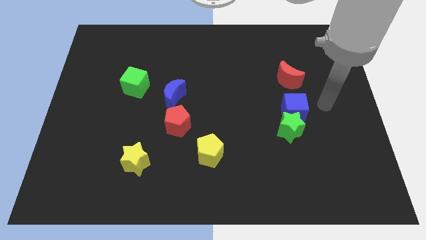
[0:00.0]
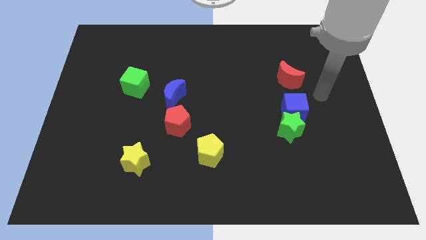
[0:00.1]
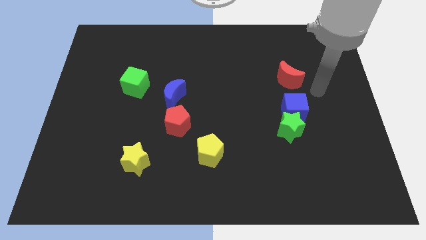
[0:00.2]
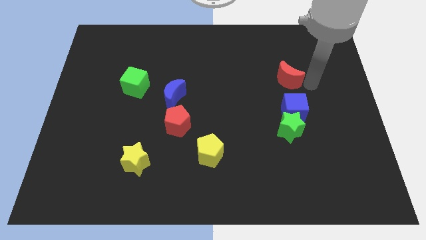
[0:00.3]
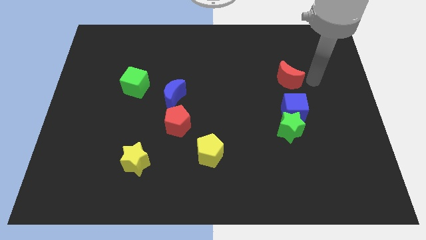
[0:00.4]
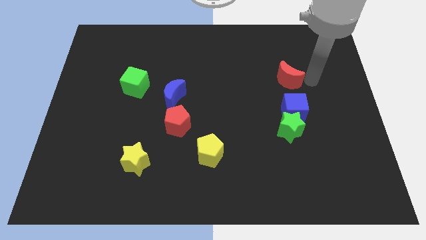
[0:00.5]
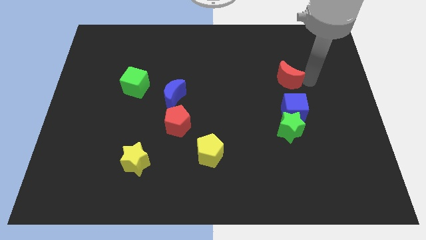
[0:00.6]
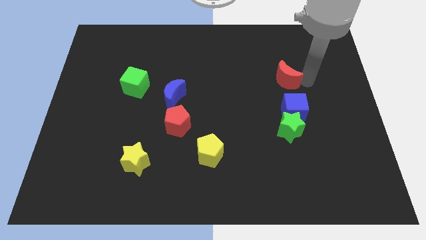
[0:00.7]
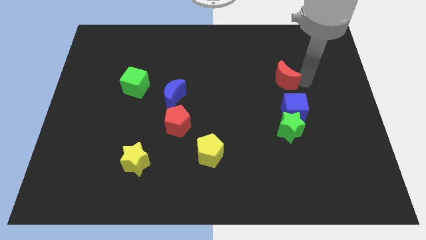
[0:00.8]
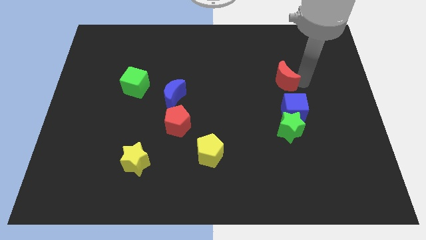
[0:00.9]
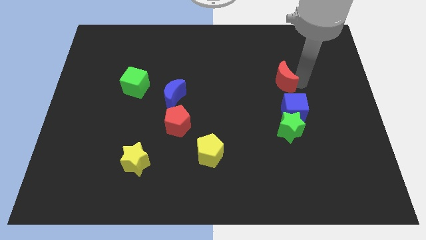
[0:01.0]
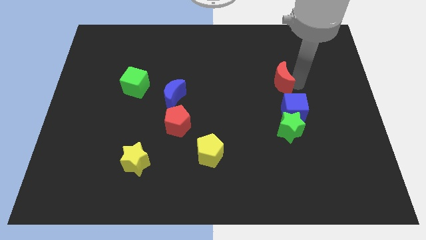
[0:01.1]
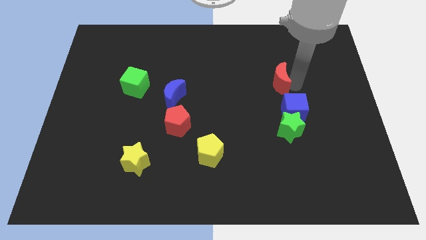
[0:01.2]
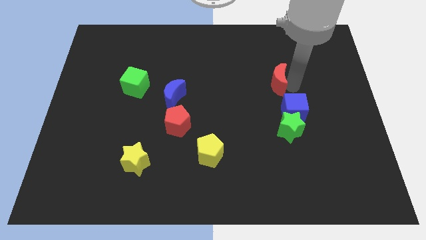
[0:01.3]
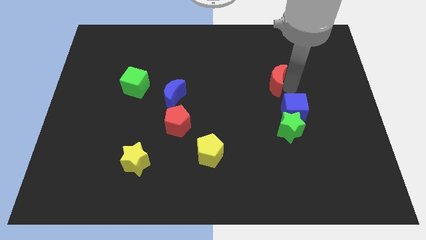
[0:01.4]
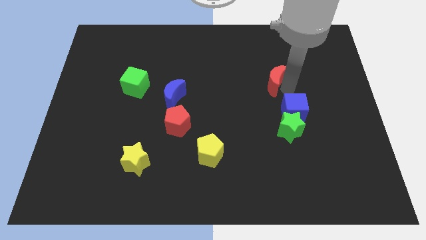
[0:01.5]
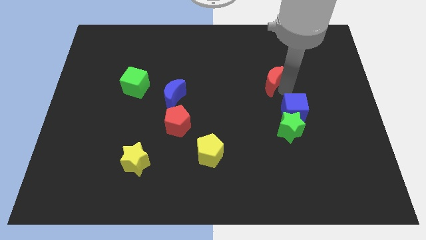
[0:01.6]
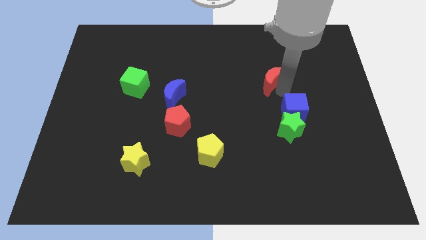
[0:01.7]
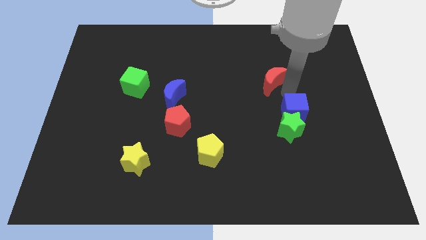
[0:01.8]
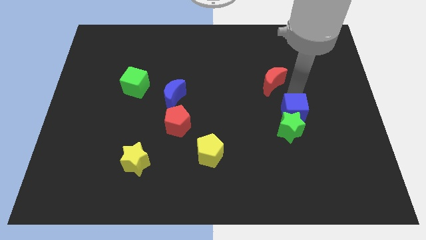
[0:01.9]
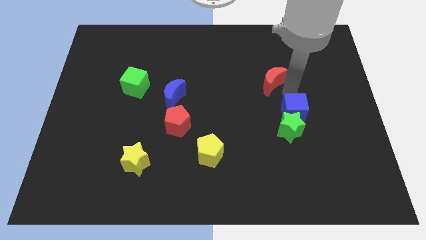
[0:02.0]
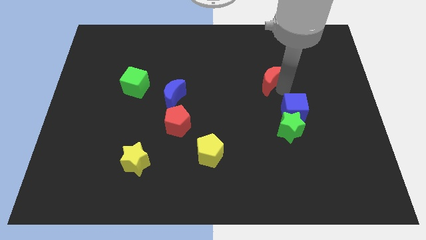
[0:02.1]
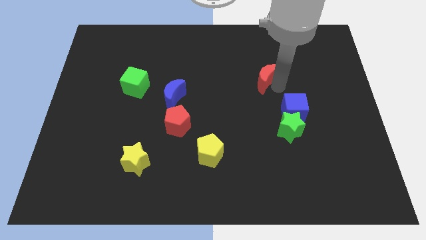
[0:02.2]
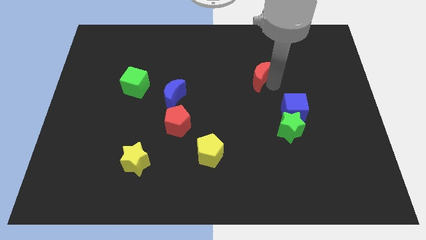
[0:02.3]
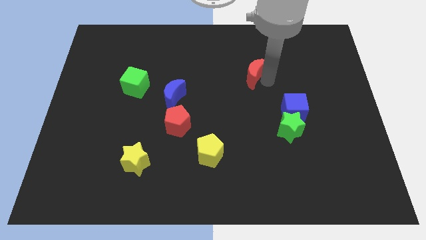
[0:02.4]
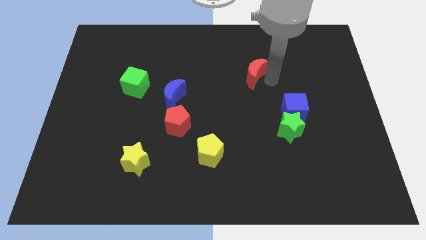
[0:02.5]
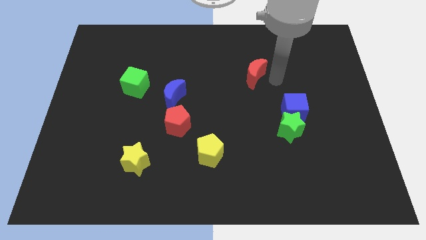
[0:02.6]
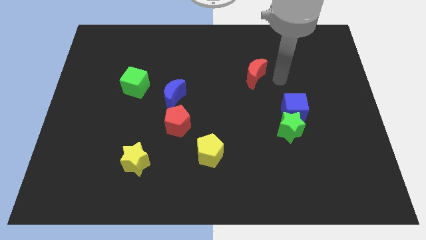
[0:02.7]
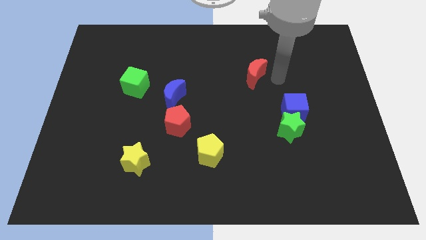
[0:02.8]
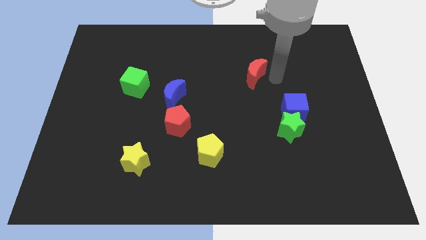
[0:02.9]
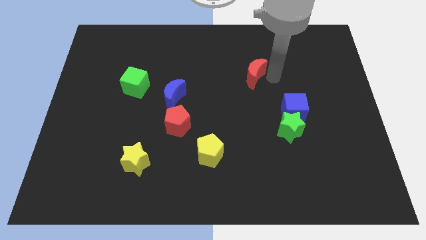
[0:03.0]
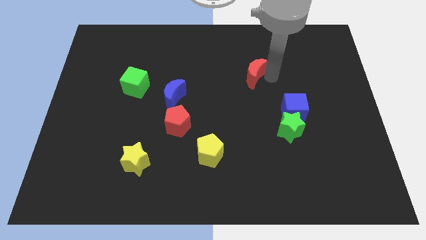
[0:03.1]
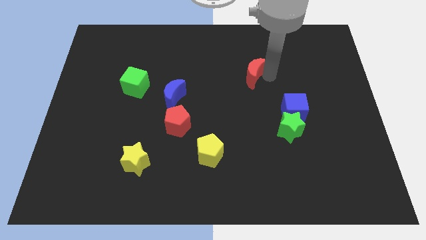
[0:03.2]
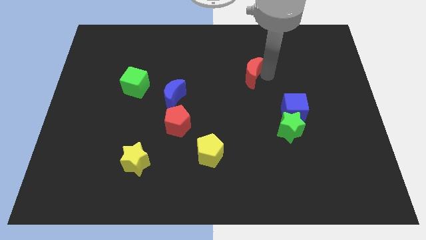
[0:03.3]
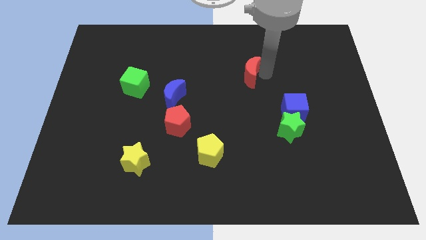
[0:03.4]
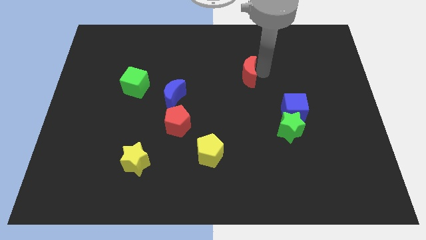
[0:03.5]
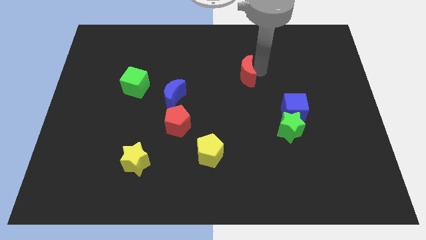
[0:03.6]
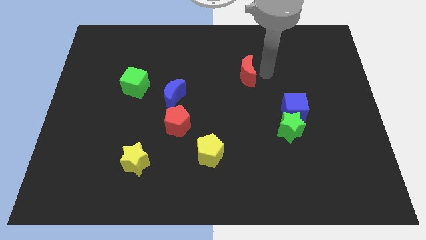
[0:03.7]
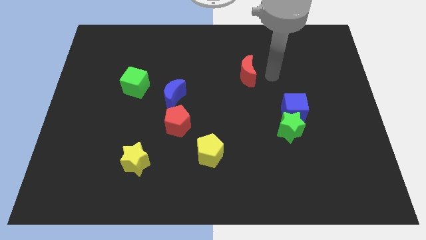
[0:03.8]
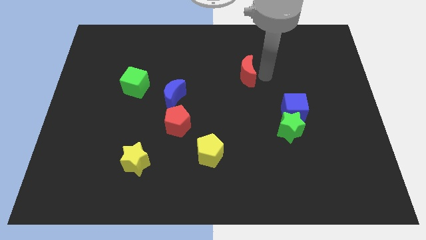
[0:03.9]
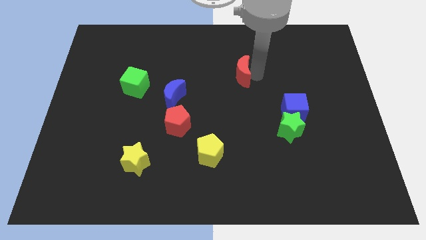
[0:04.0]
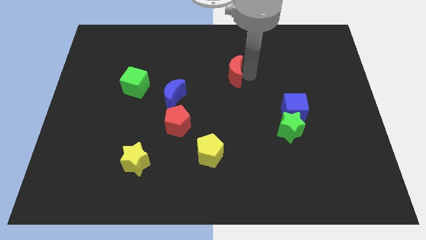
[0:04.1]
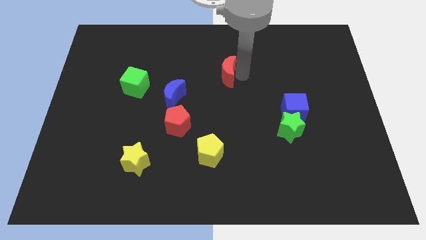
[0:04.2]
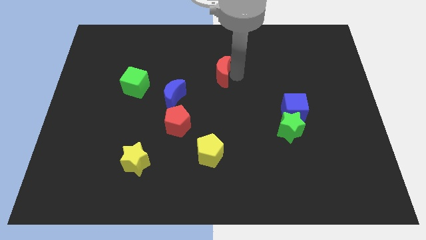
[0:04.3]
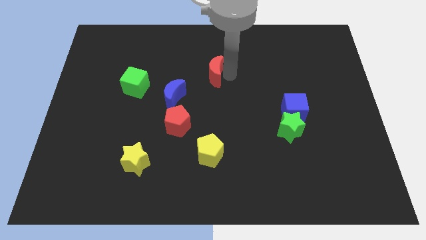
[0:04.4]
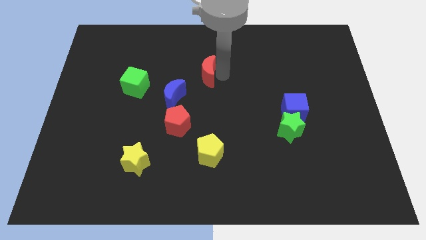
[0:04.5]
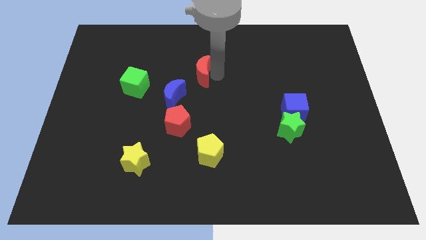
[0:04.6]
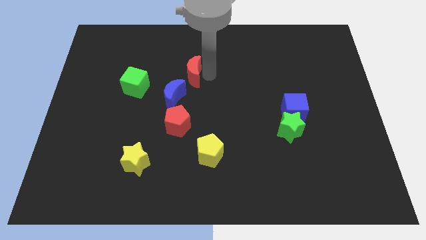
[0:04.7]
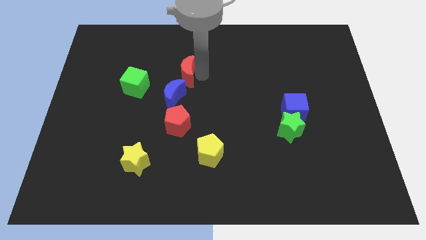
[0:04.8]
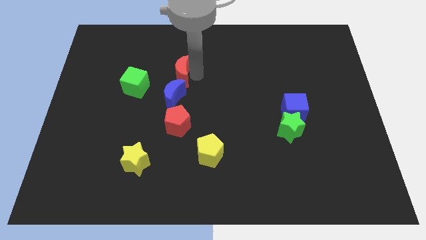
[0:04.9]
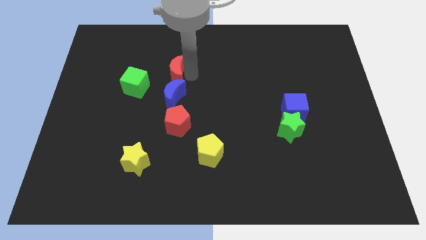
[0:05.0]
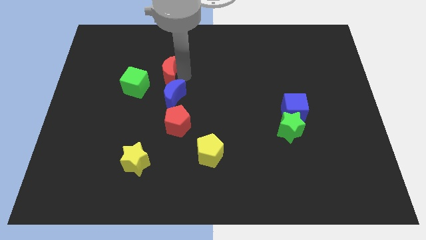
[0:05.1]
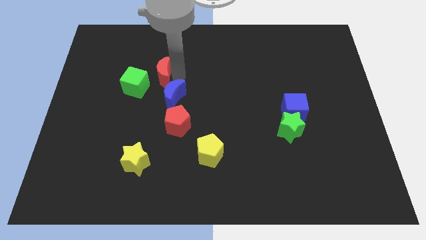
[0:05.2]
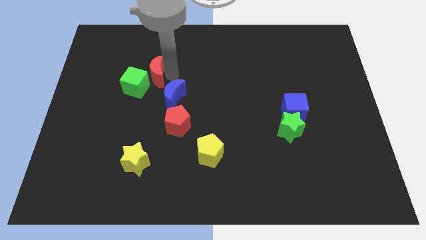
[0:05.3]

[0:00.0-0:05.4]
push the red moon close to the green cube

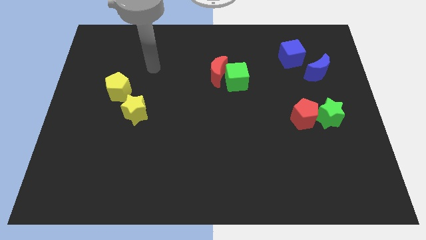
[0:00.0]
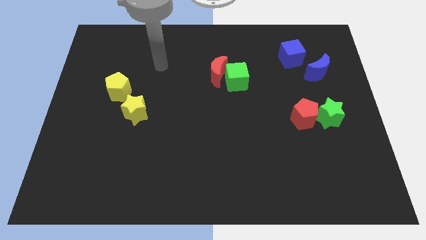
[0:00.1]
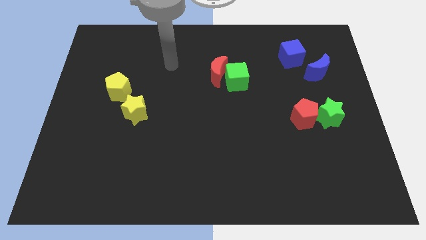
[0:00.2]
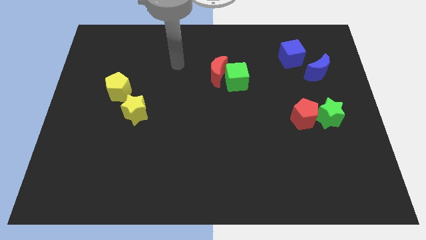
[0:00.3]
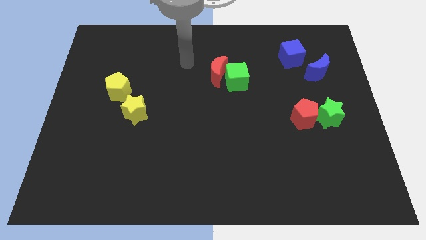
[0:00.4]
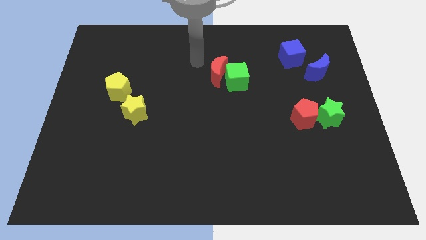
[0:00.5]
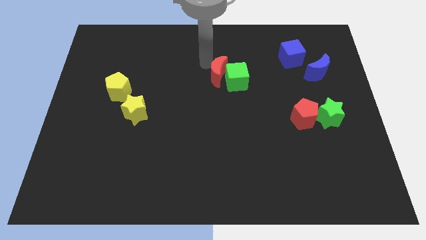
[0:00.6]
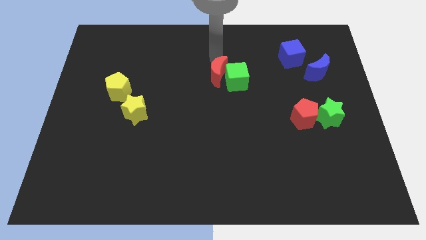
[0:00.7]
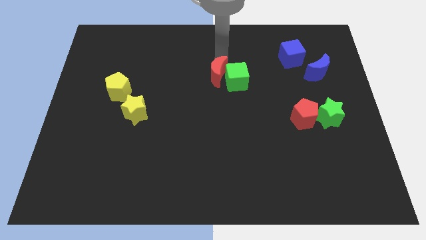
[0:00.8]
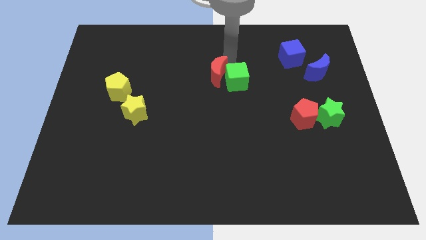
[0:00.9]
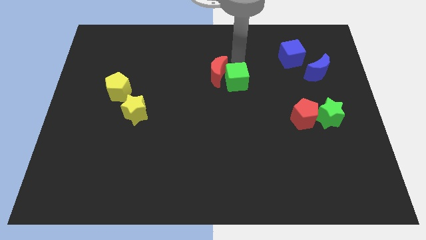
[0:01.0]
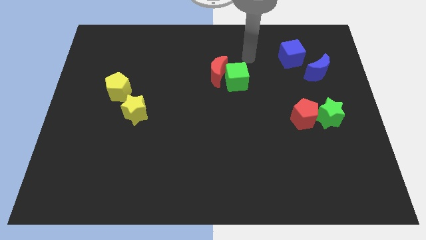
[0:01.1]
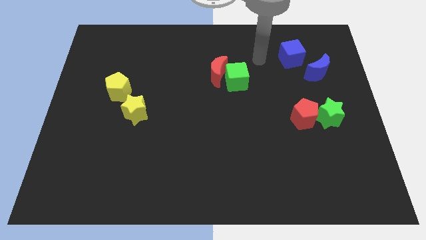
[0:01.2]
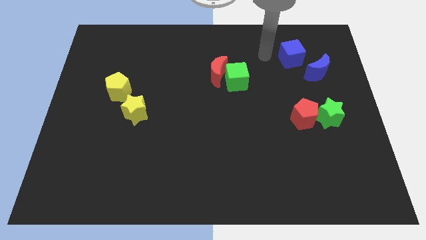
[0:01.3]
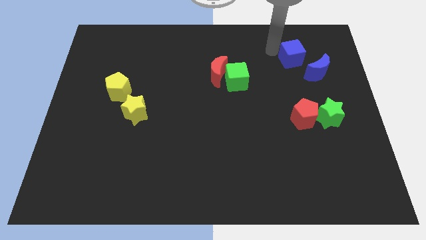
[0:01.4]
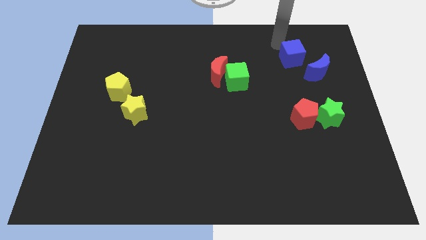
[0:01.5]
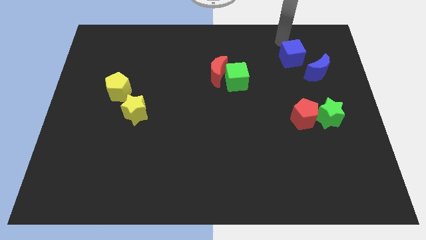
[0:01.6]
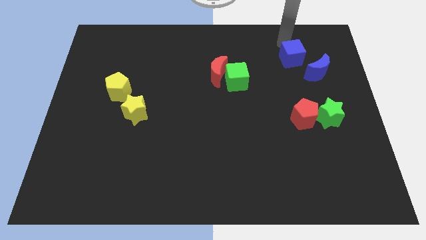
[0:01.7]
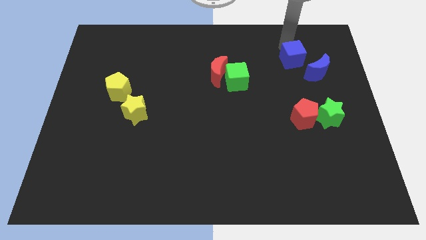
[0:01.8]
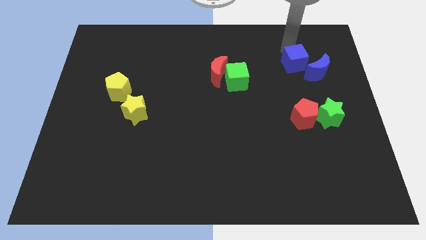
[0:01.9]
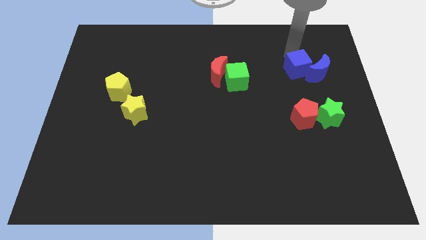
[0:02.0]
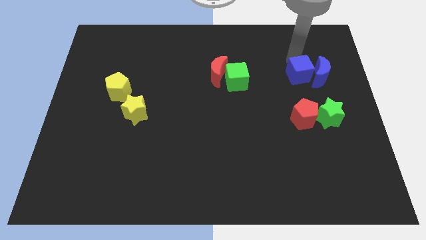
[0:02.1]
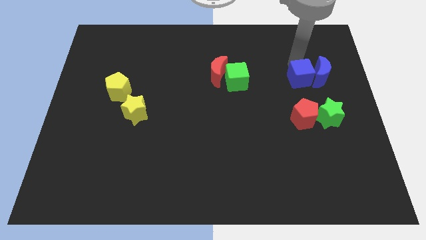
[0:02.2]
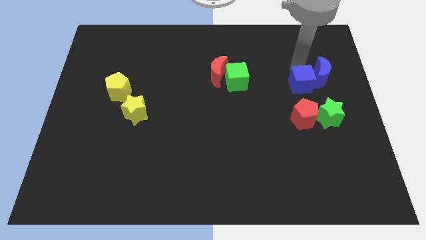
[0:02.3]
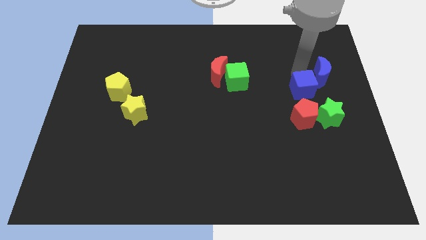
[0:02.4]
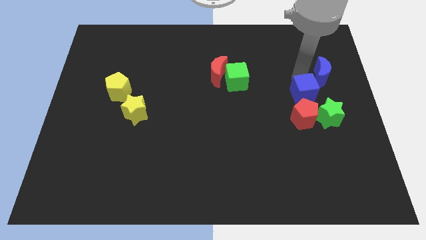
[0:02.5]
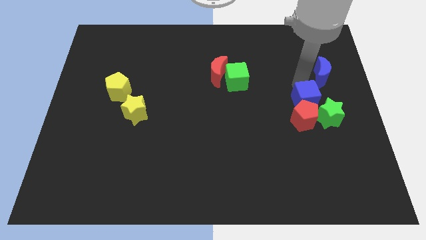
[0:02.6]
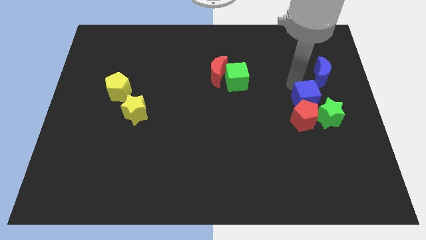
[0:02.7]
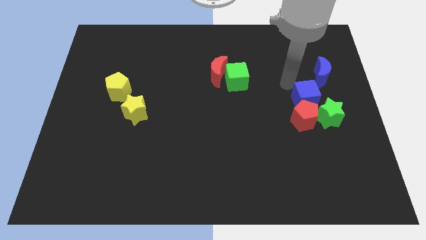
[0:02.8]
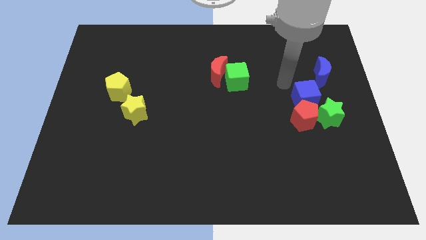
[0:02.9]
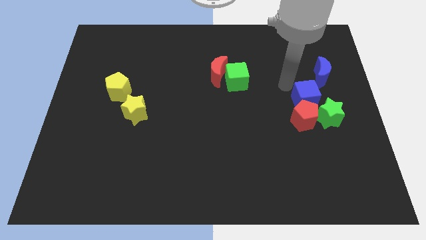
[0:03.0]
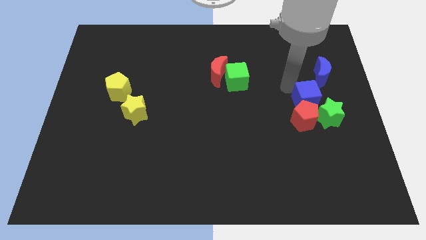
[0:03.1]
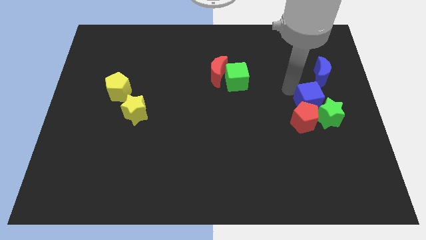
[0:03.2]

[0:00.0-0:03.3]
put the blue cube next to the green star
